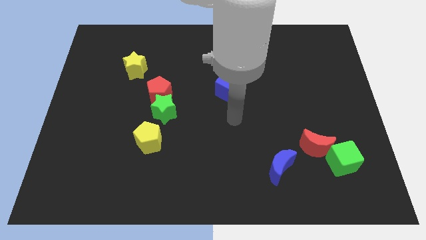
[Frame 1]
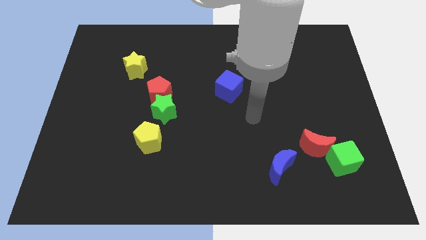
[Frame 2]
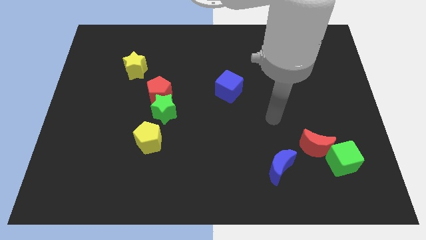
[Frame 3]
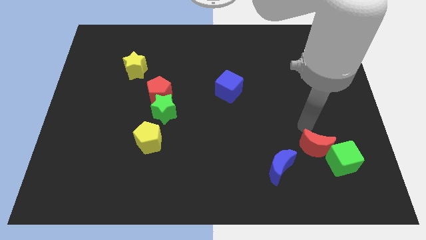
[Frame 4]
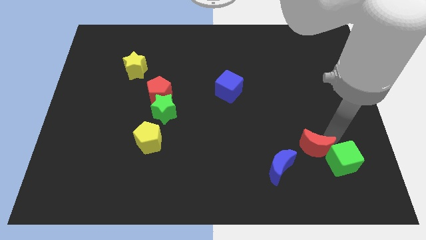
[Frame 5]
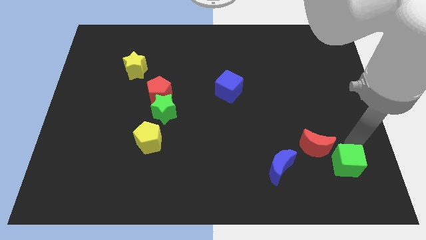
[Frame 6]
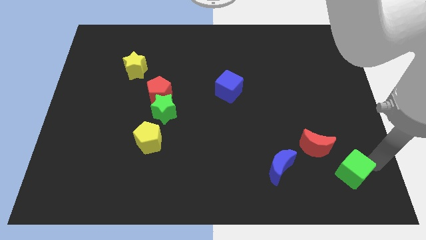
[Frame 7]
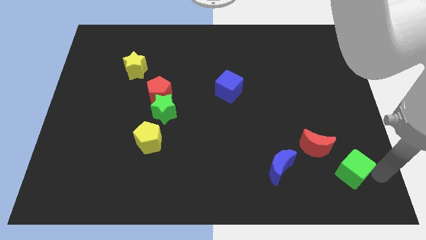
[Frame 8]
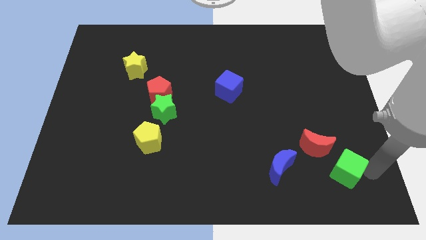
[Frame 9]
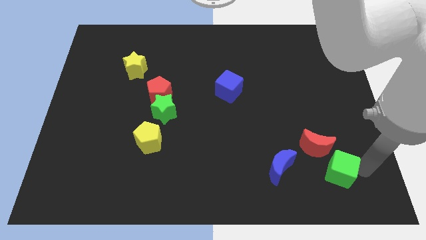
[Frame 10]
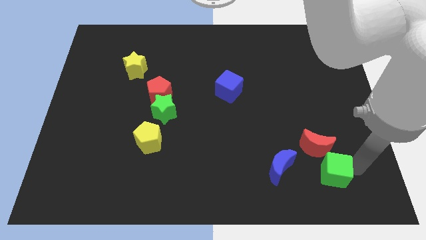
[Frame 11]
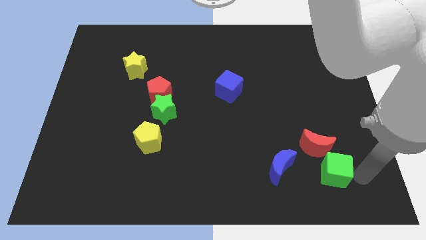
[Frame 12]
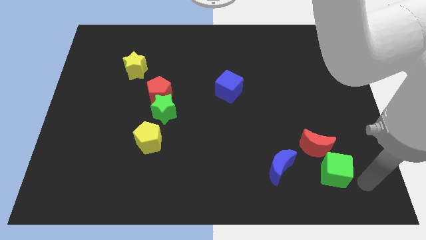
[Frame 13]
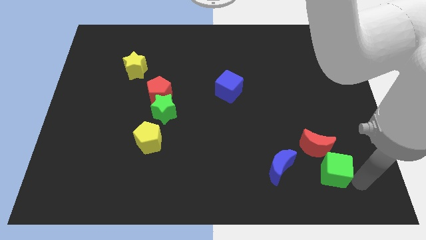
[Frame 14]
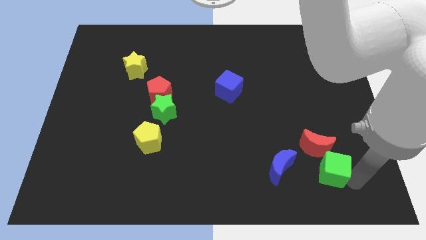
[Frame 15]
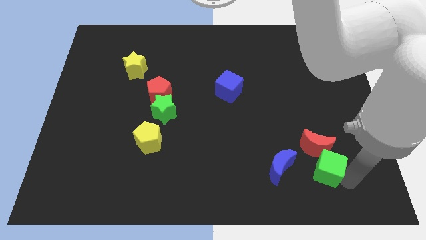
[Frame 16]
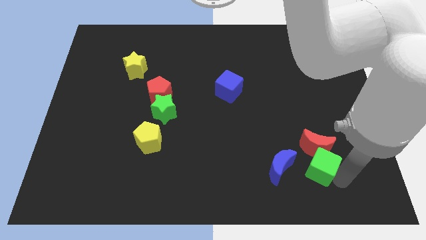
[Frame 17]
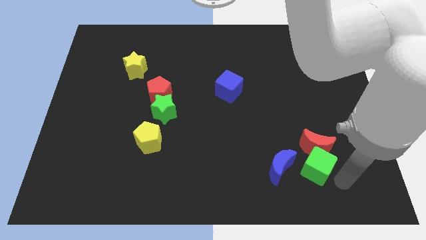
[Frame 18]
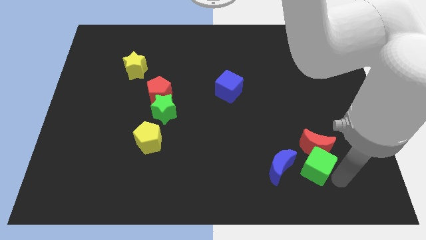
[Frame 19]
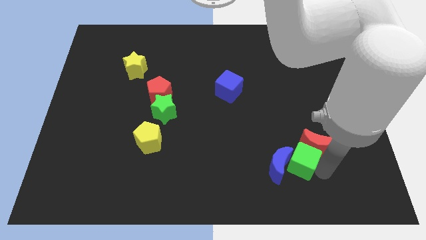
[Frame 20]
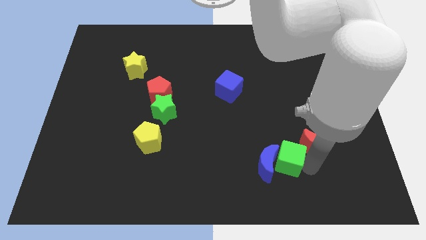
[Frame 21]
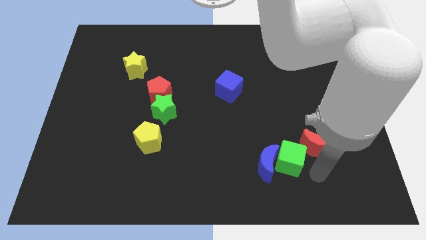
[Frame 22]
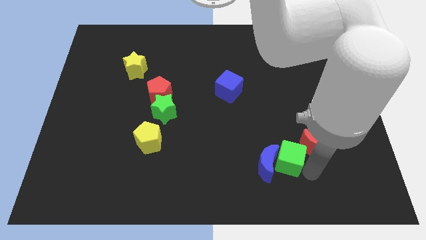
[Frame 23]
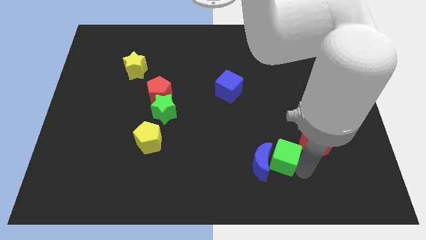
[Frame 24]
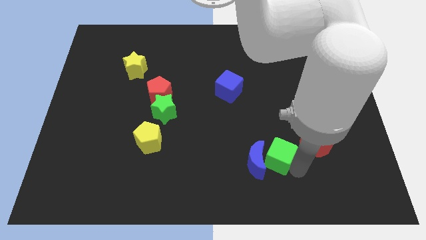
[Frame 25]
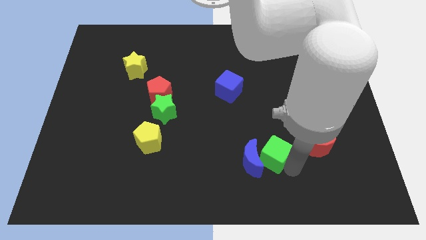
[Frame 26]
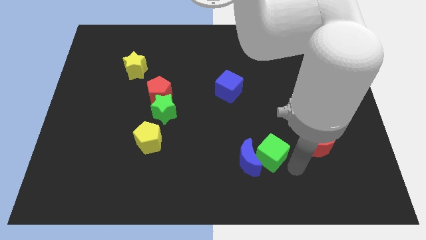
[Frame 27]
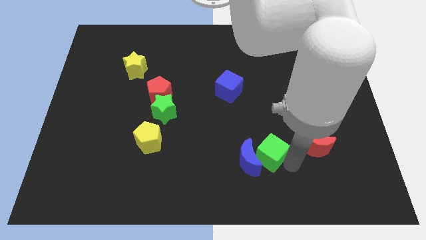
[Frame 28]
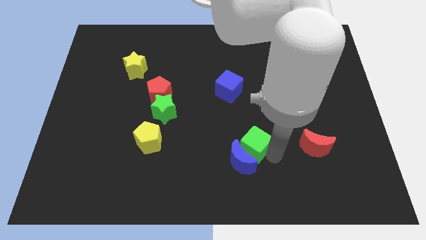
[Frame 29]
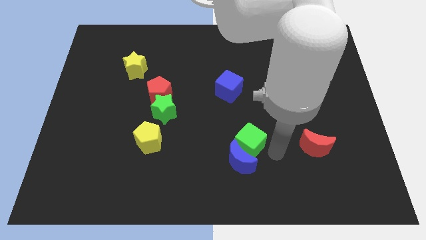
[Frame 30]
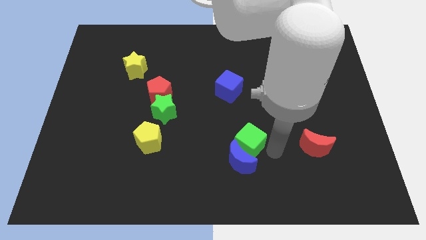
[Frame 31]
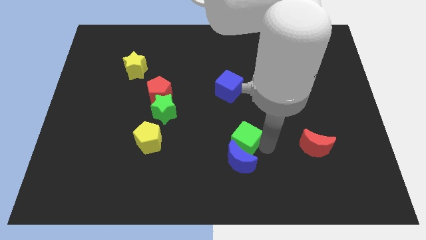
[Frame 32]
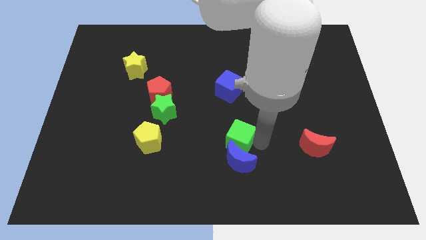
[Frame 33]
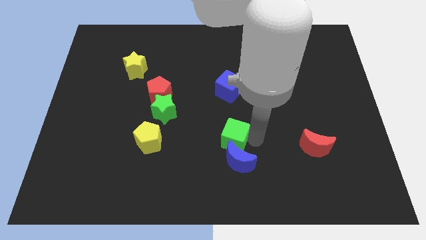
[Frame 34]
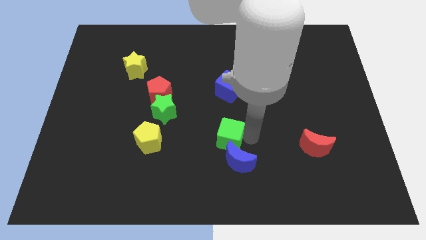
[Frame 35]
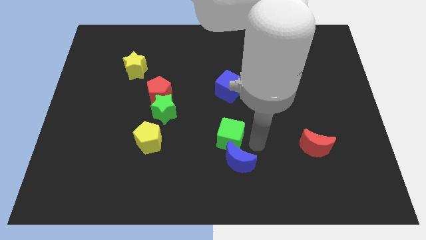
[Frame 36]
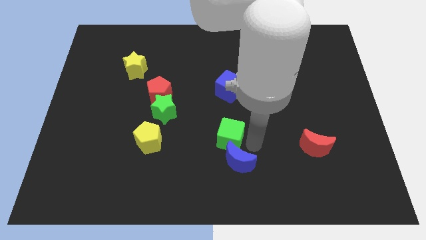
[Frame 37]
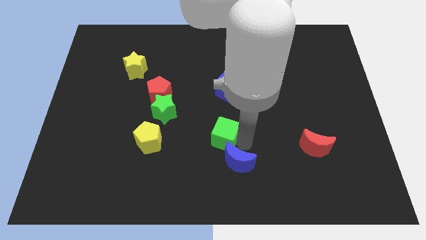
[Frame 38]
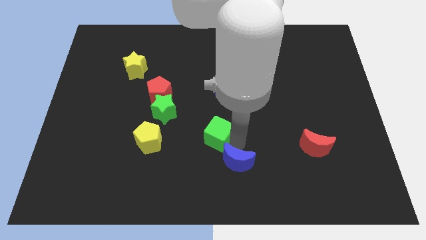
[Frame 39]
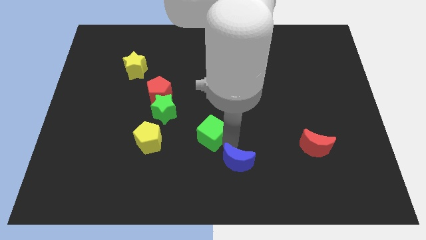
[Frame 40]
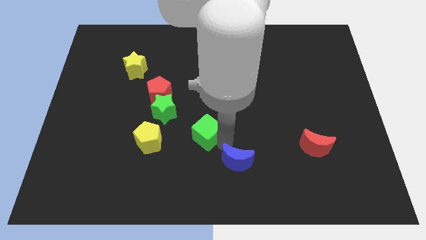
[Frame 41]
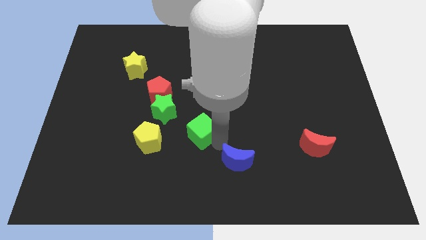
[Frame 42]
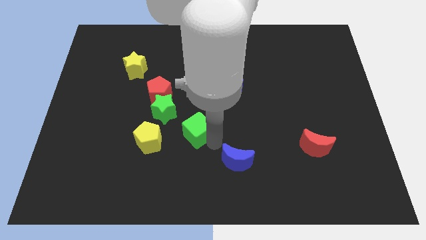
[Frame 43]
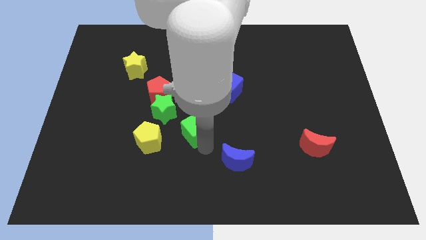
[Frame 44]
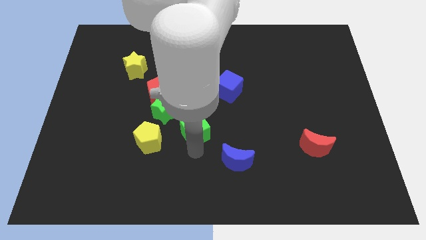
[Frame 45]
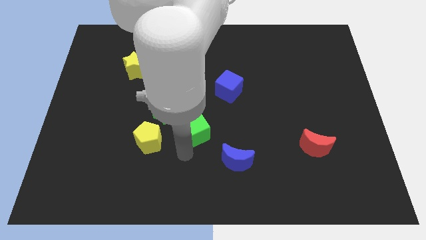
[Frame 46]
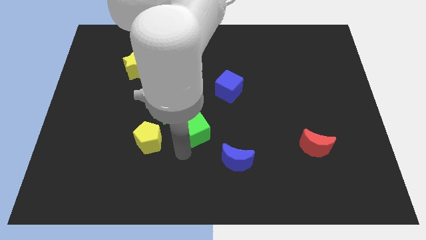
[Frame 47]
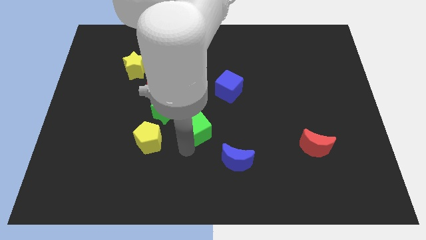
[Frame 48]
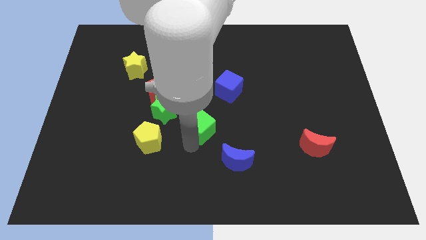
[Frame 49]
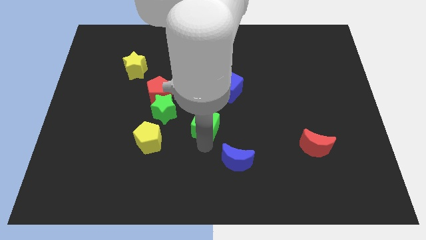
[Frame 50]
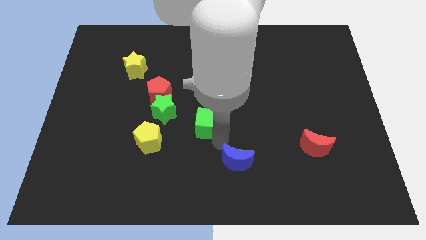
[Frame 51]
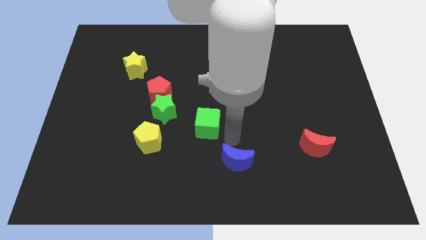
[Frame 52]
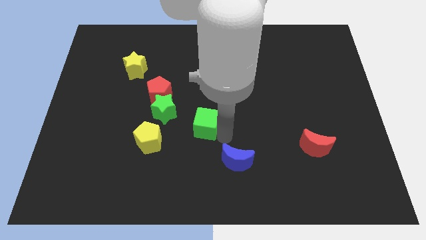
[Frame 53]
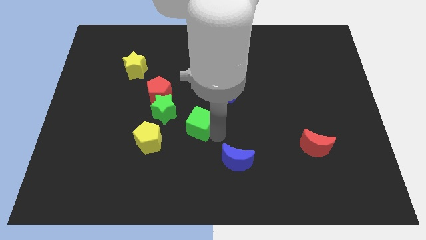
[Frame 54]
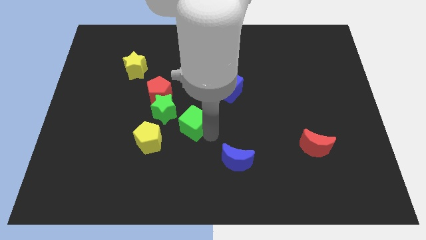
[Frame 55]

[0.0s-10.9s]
move the green cube to the bottom right of the red pentagon

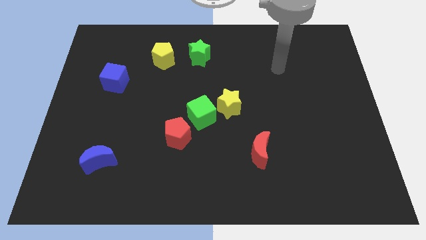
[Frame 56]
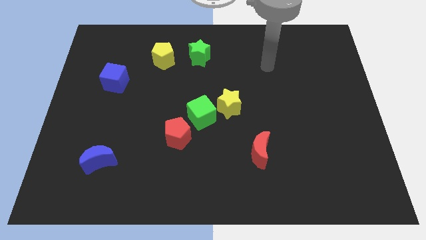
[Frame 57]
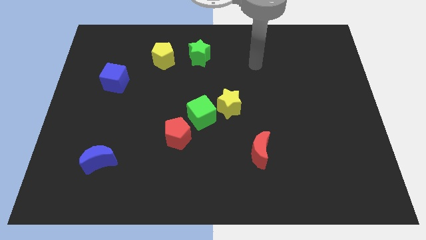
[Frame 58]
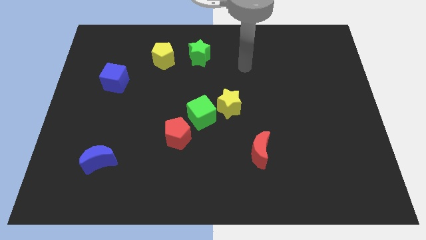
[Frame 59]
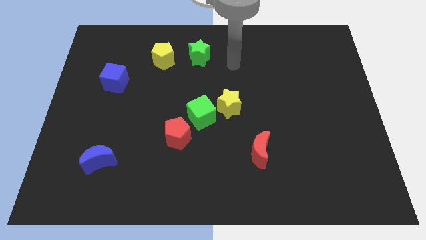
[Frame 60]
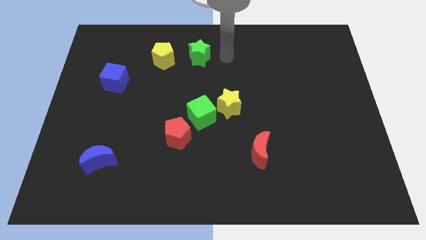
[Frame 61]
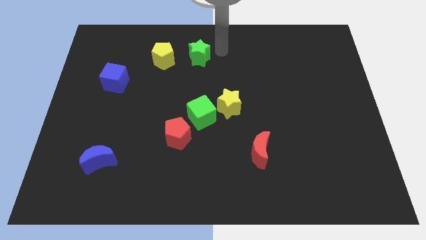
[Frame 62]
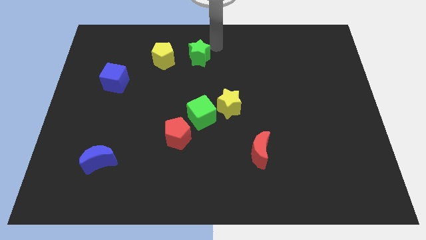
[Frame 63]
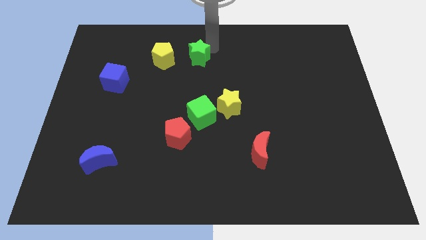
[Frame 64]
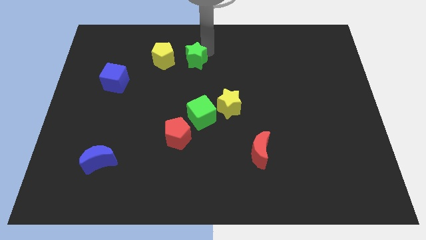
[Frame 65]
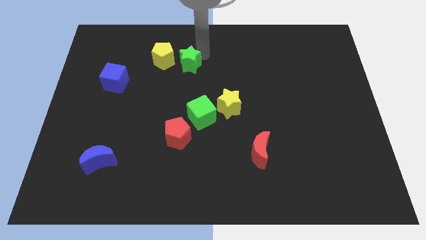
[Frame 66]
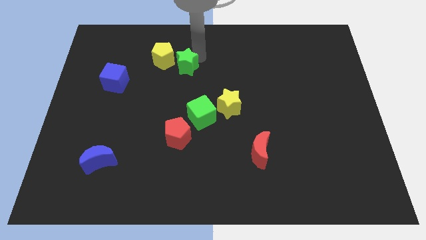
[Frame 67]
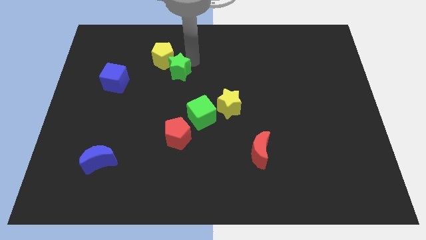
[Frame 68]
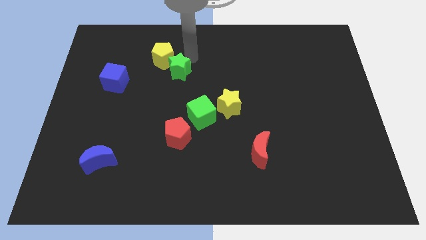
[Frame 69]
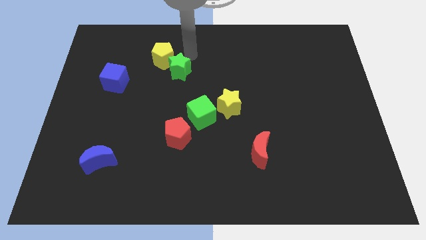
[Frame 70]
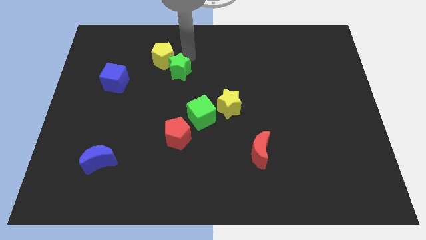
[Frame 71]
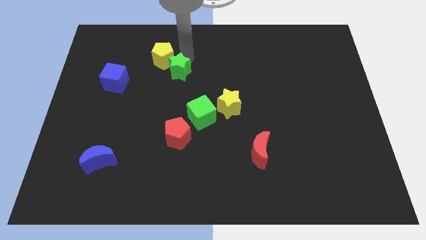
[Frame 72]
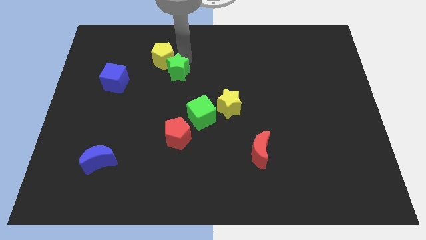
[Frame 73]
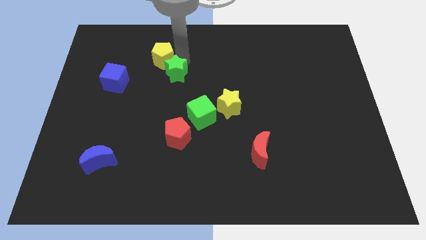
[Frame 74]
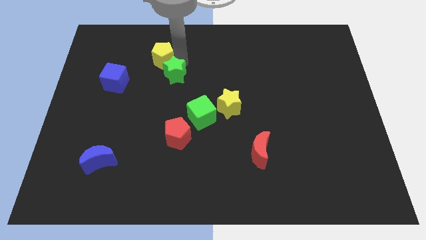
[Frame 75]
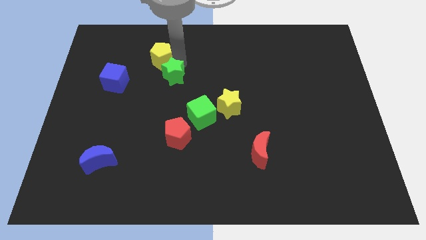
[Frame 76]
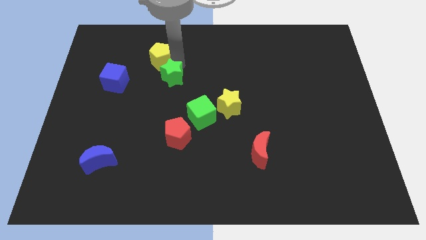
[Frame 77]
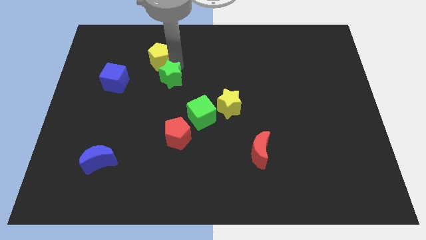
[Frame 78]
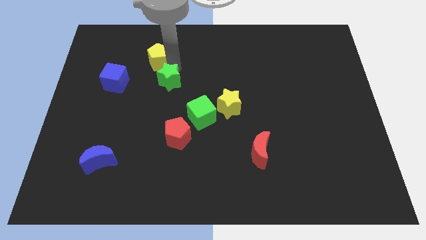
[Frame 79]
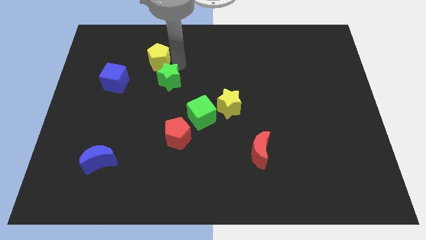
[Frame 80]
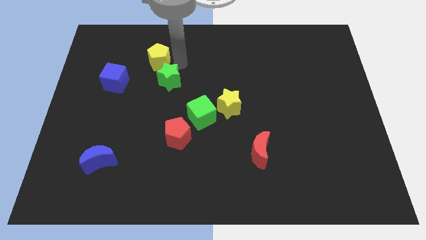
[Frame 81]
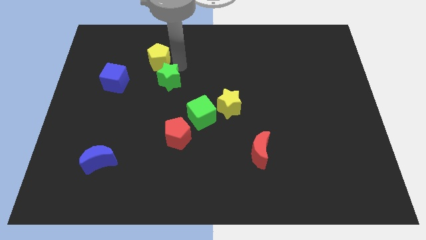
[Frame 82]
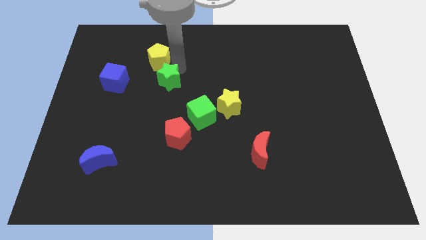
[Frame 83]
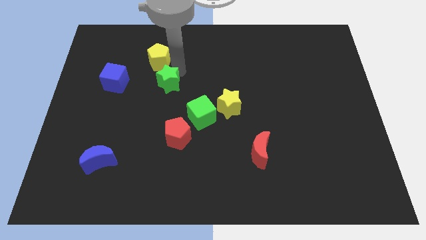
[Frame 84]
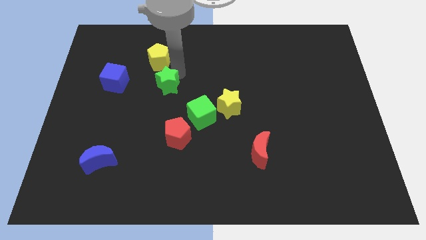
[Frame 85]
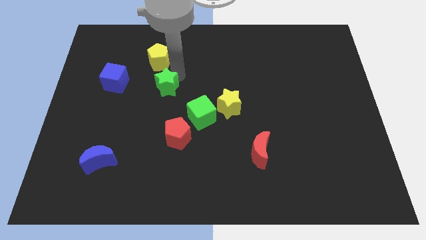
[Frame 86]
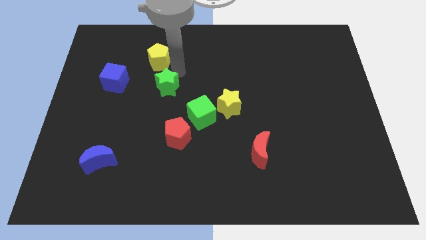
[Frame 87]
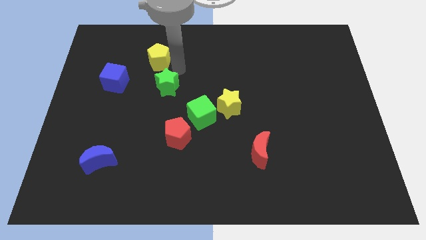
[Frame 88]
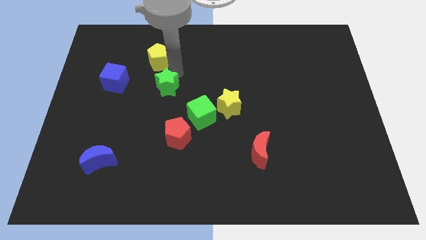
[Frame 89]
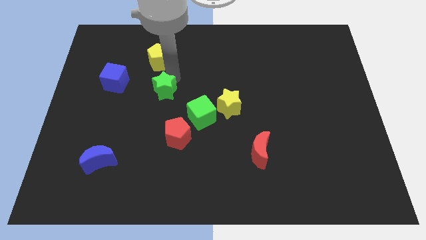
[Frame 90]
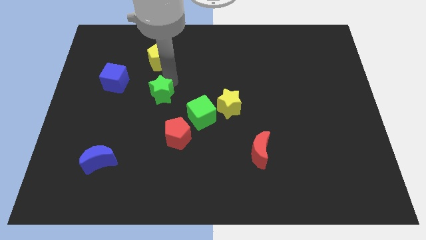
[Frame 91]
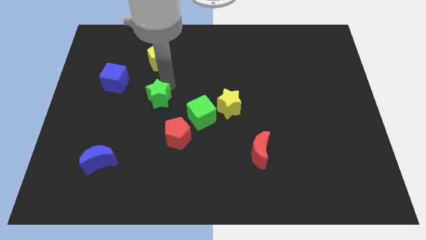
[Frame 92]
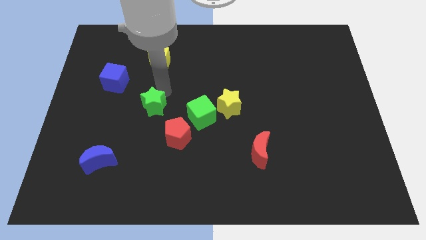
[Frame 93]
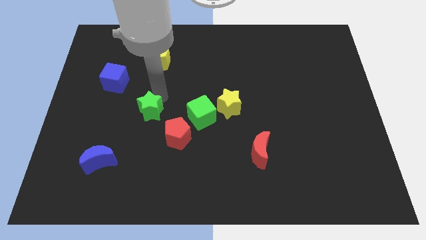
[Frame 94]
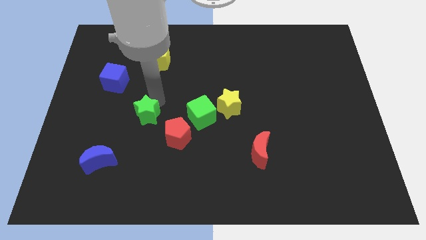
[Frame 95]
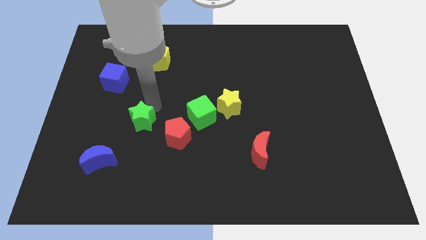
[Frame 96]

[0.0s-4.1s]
slide the green star to the left side of the red pentagon
